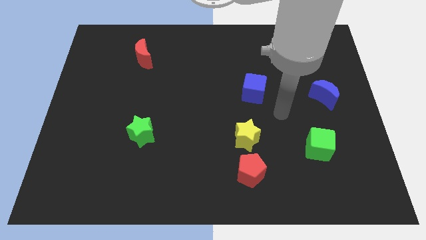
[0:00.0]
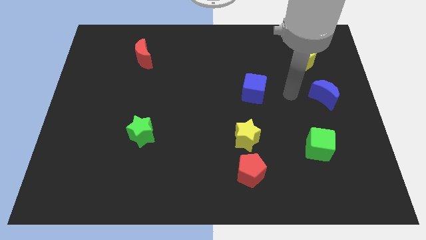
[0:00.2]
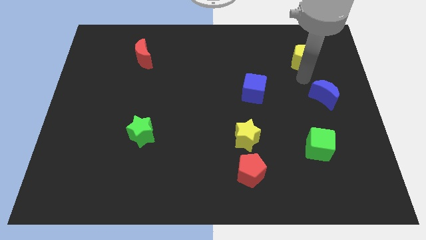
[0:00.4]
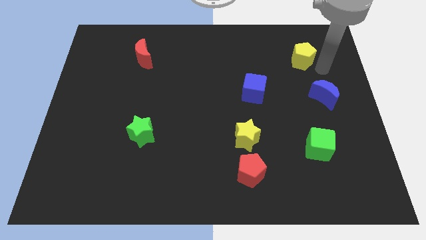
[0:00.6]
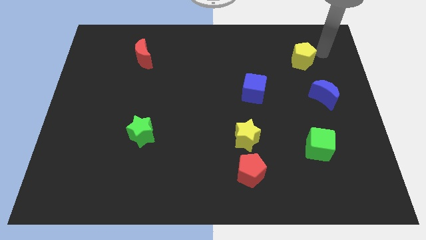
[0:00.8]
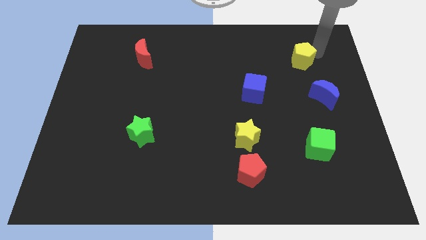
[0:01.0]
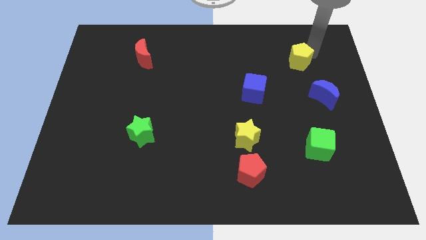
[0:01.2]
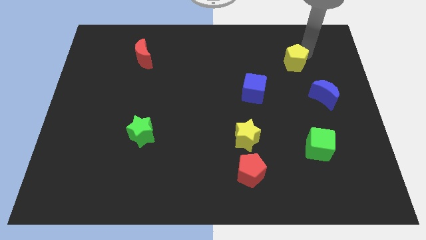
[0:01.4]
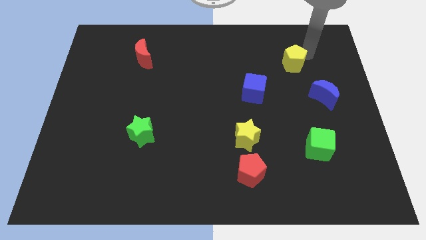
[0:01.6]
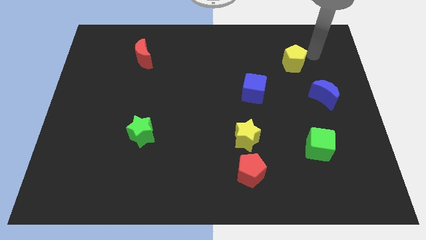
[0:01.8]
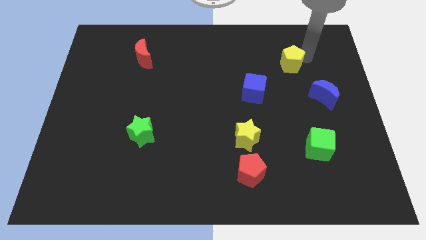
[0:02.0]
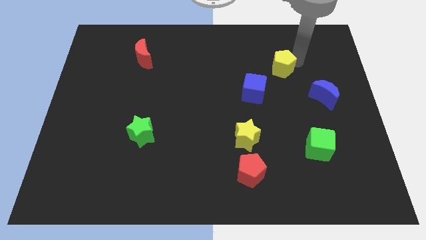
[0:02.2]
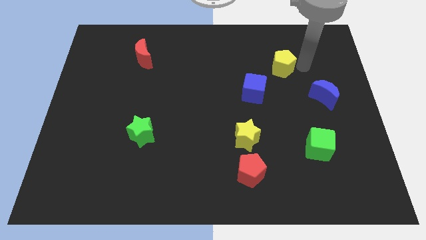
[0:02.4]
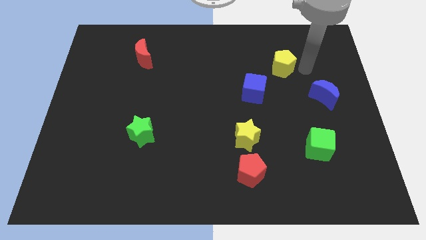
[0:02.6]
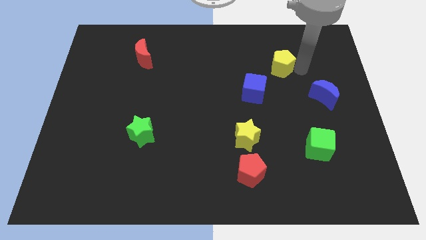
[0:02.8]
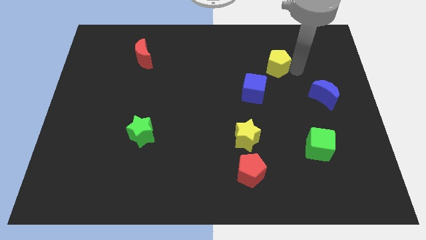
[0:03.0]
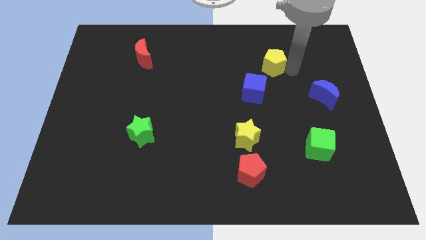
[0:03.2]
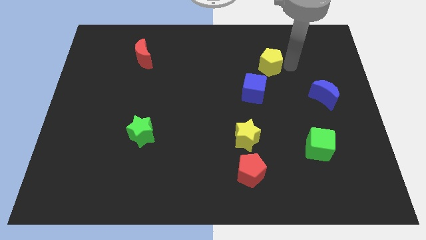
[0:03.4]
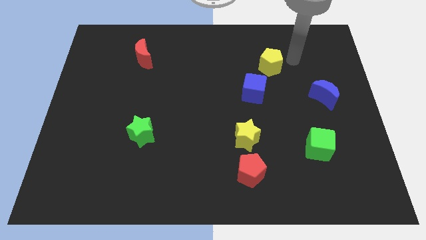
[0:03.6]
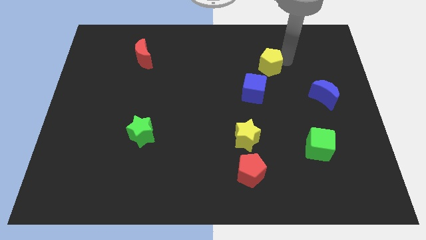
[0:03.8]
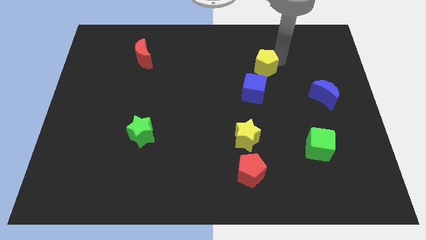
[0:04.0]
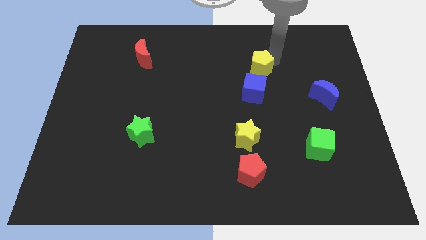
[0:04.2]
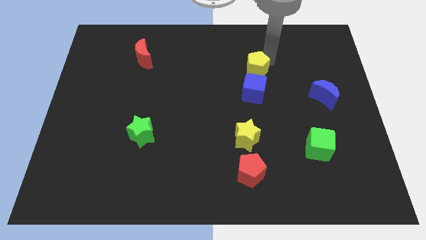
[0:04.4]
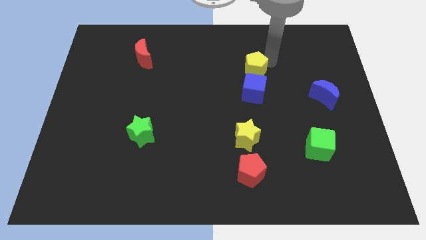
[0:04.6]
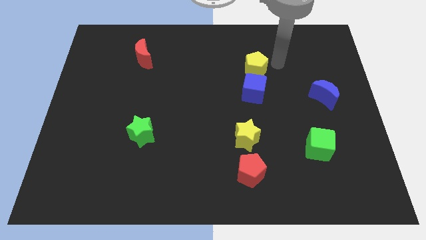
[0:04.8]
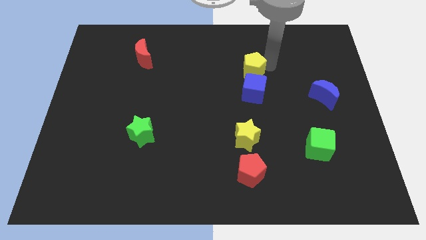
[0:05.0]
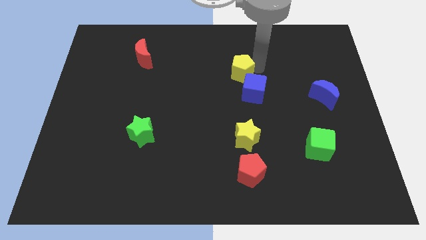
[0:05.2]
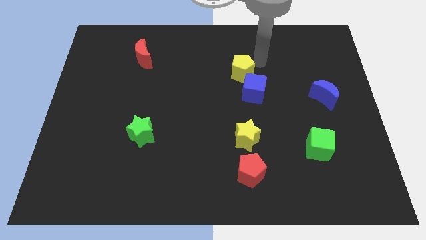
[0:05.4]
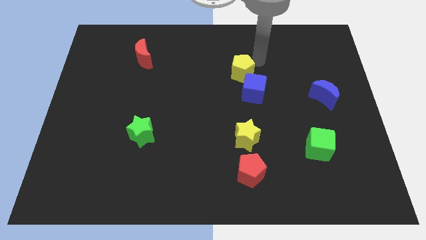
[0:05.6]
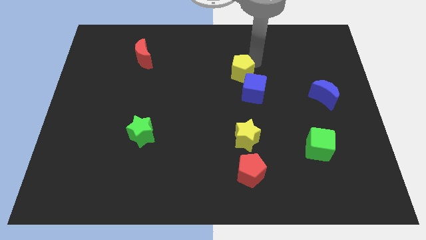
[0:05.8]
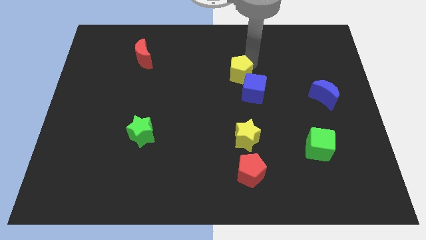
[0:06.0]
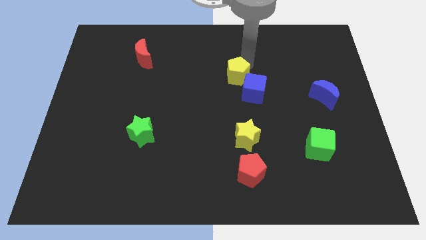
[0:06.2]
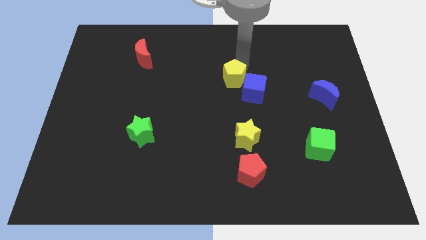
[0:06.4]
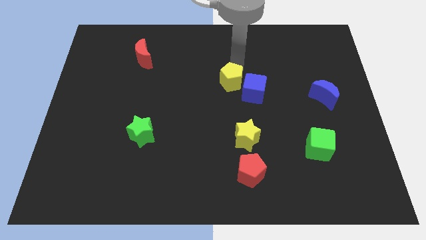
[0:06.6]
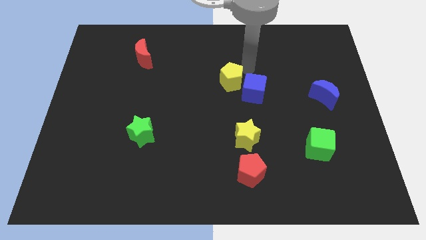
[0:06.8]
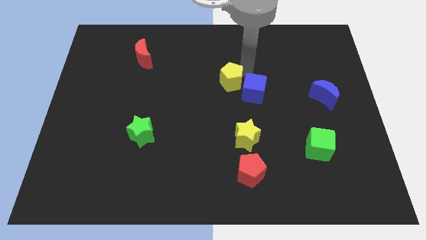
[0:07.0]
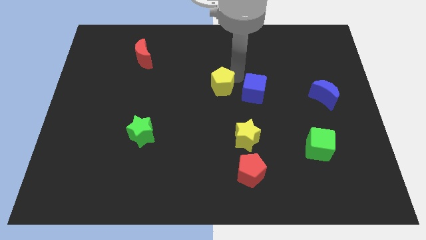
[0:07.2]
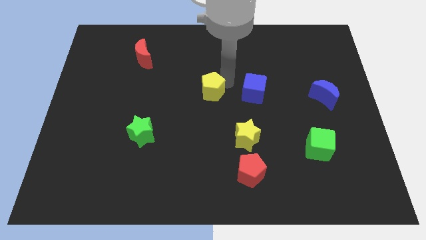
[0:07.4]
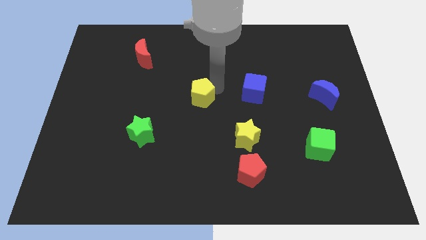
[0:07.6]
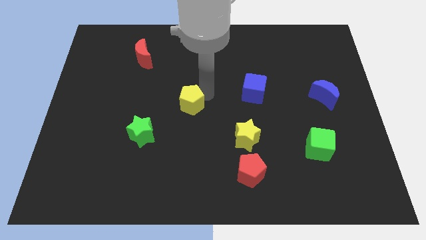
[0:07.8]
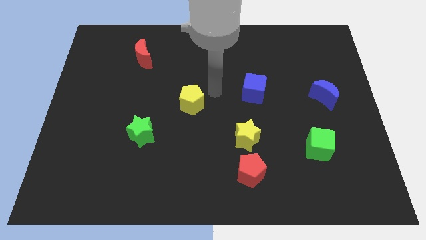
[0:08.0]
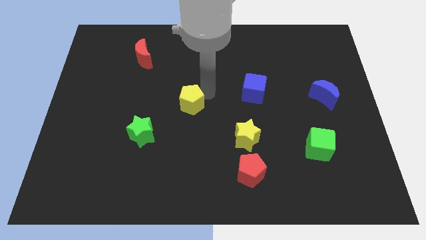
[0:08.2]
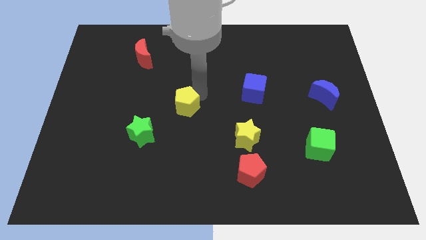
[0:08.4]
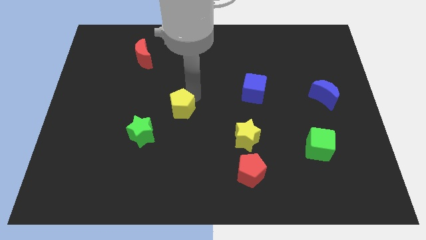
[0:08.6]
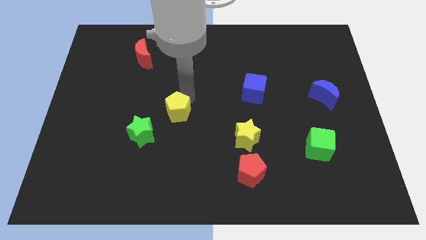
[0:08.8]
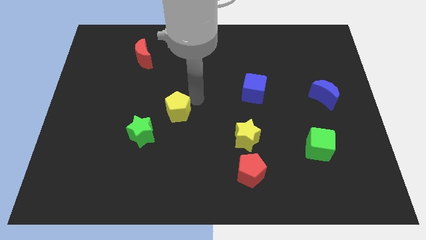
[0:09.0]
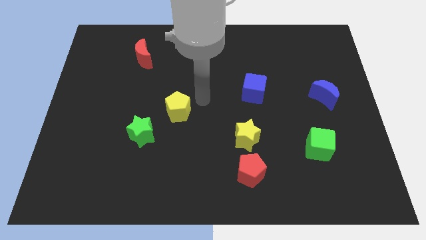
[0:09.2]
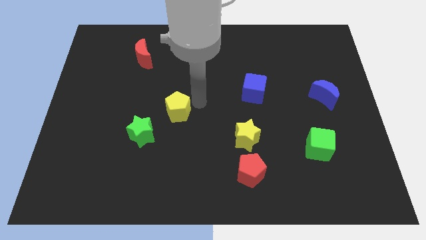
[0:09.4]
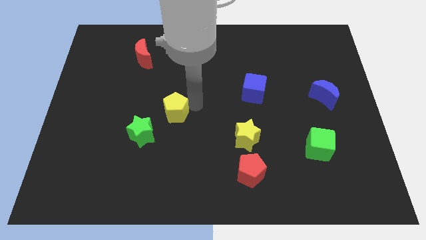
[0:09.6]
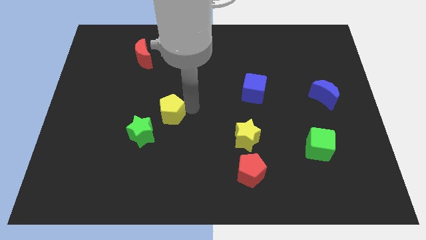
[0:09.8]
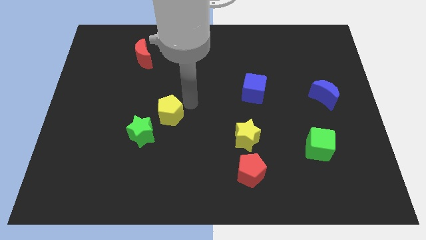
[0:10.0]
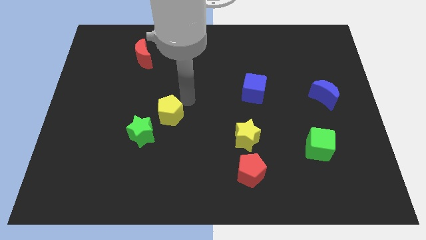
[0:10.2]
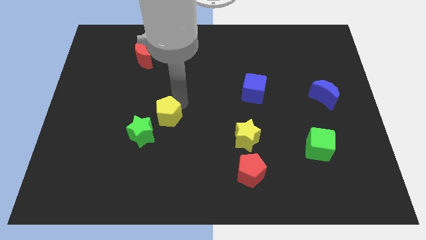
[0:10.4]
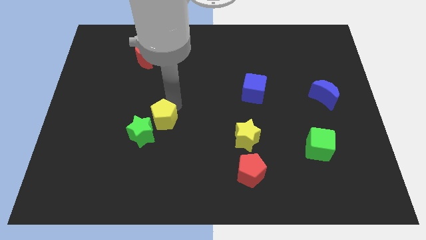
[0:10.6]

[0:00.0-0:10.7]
push the yellow pentagon to the green star

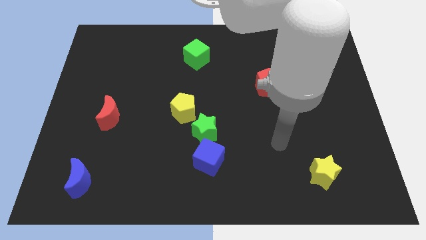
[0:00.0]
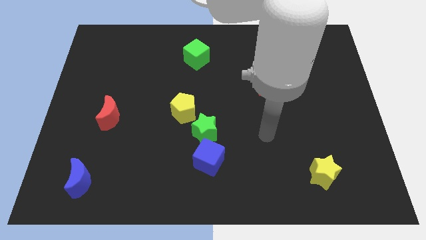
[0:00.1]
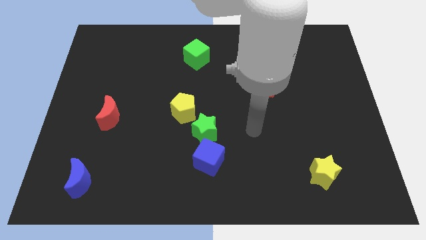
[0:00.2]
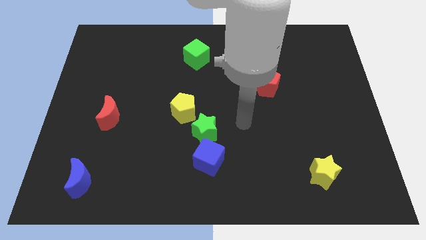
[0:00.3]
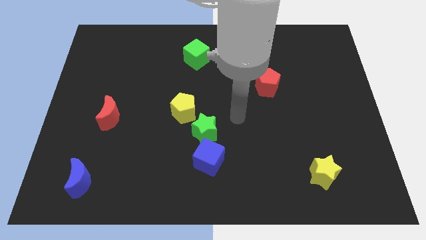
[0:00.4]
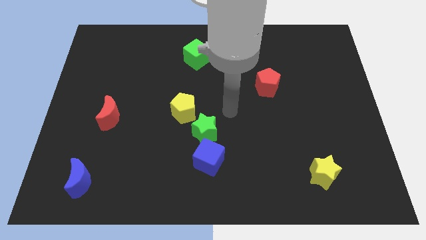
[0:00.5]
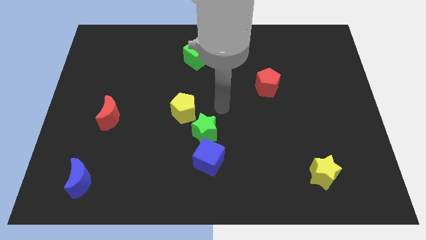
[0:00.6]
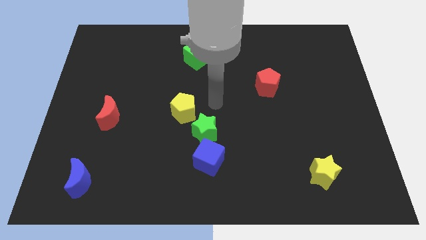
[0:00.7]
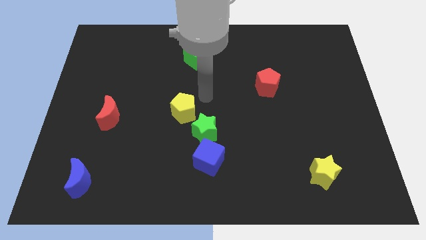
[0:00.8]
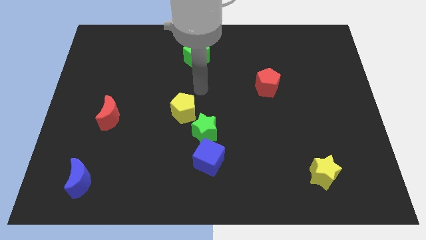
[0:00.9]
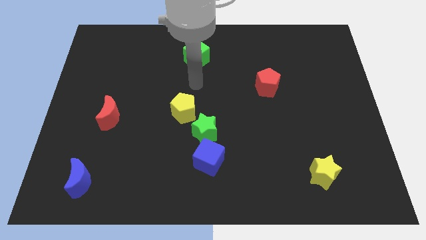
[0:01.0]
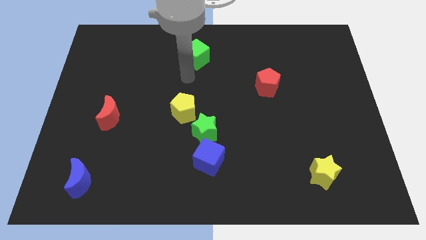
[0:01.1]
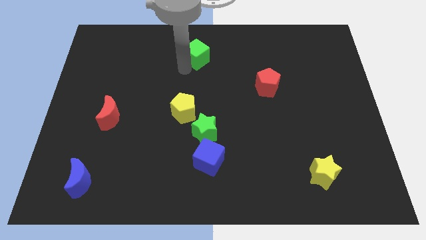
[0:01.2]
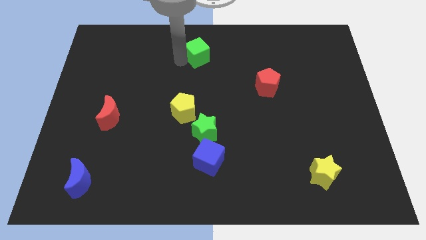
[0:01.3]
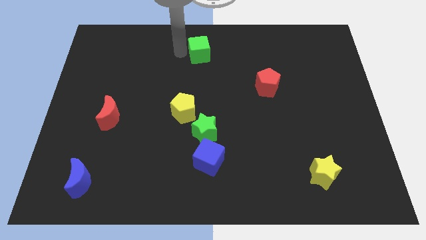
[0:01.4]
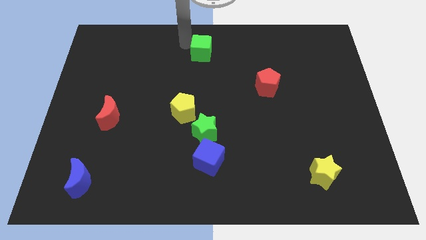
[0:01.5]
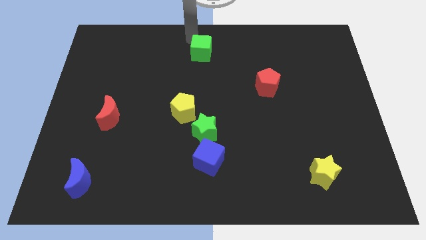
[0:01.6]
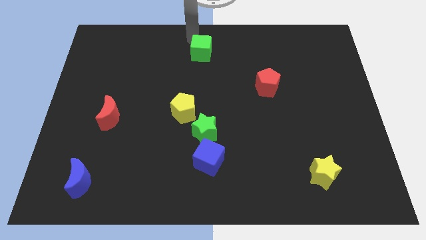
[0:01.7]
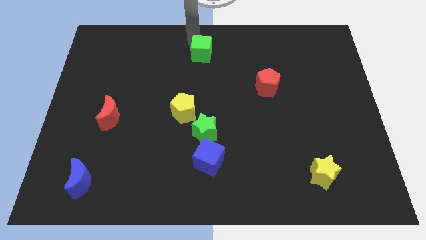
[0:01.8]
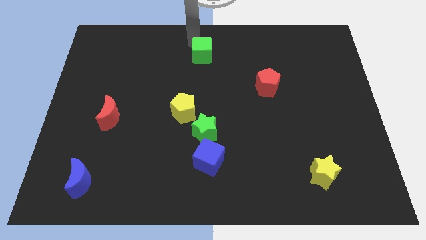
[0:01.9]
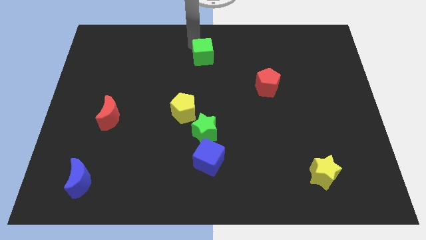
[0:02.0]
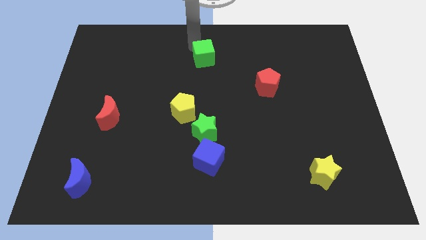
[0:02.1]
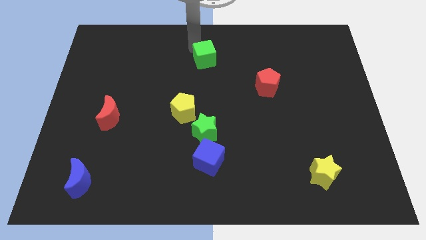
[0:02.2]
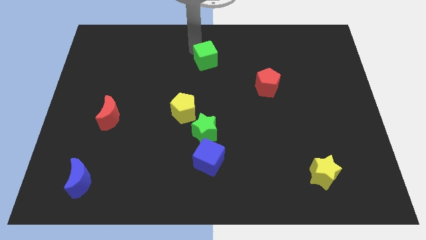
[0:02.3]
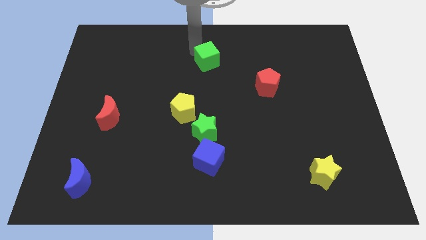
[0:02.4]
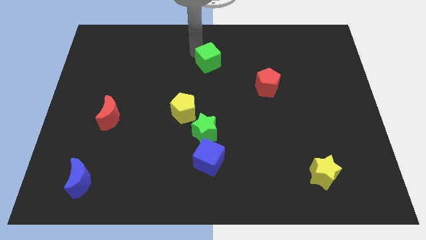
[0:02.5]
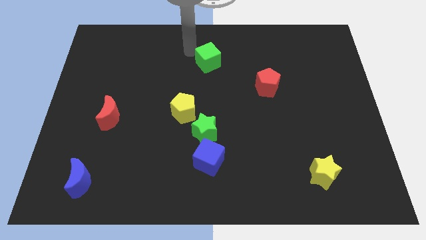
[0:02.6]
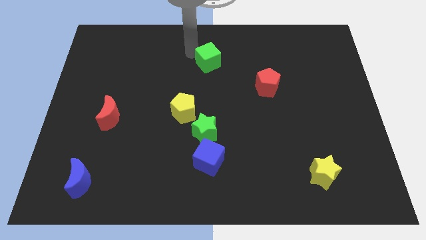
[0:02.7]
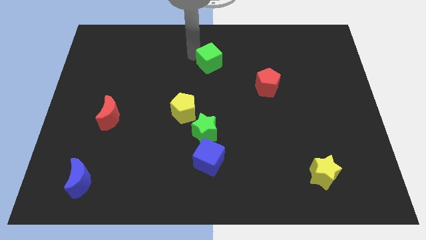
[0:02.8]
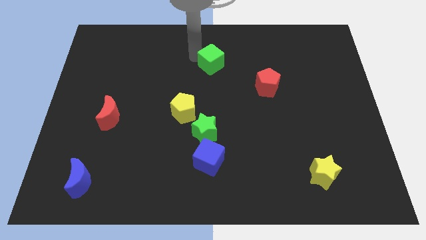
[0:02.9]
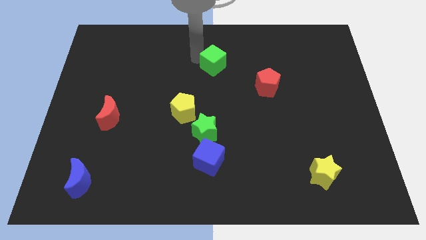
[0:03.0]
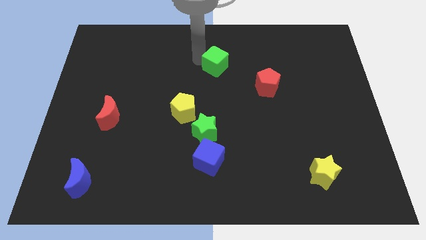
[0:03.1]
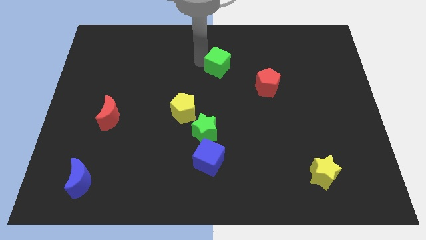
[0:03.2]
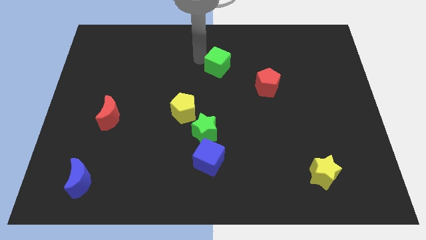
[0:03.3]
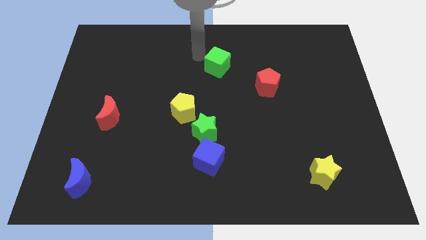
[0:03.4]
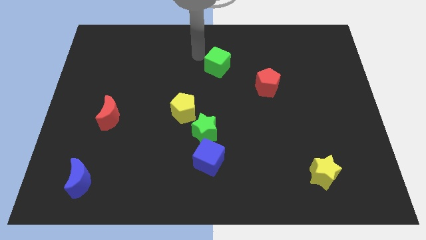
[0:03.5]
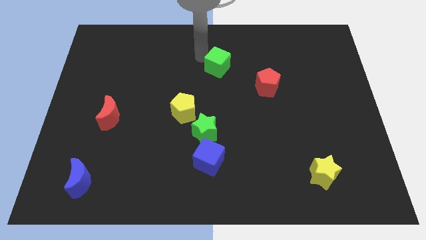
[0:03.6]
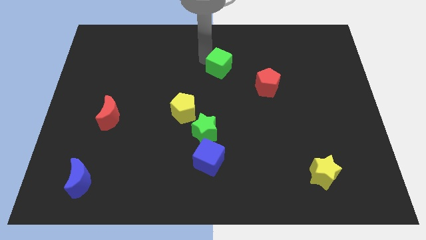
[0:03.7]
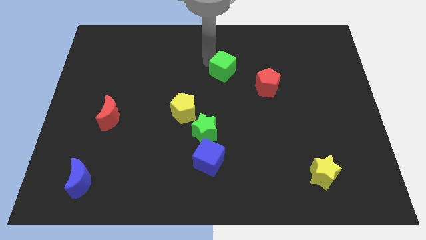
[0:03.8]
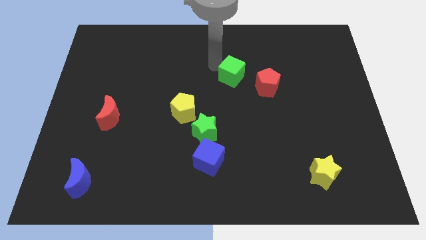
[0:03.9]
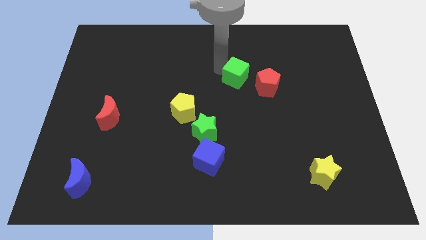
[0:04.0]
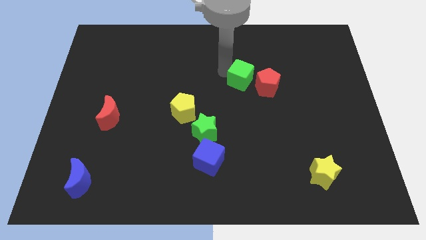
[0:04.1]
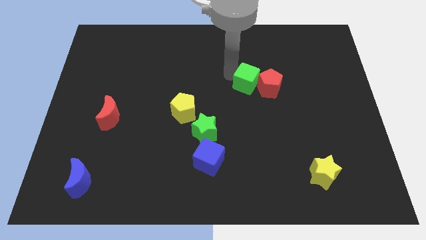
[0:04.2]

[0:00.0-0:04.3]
push the green cube towards the red pentagon
